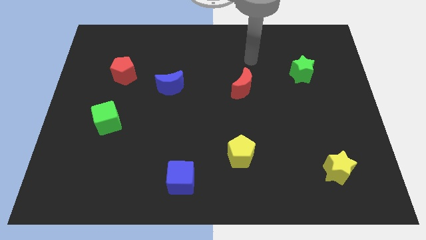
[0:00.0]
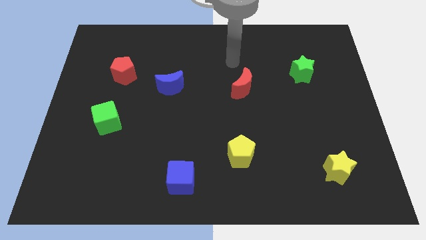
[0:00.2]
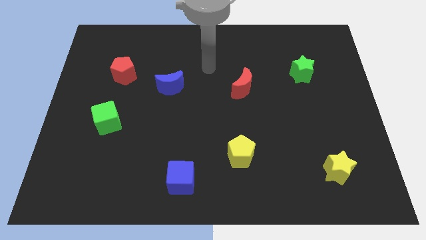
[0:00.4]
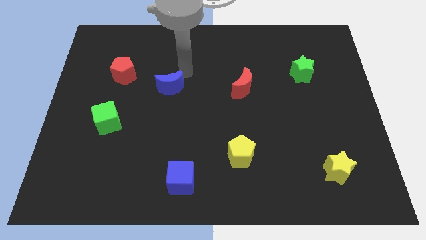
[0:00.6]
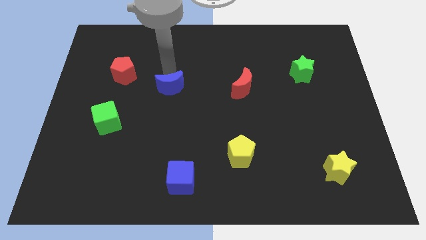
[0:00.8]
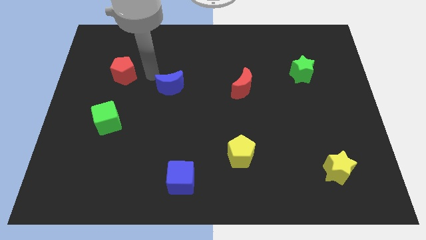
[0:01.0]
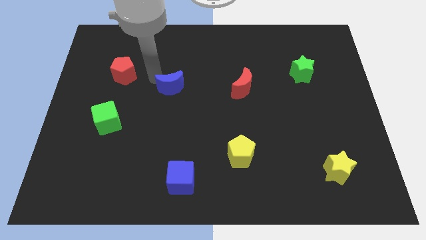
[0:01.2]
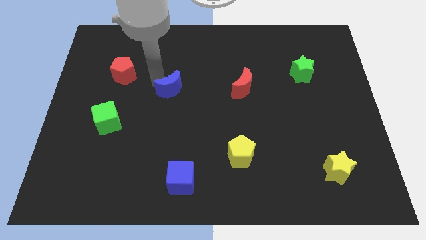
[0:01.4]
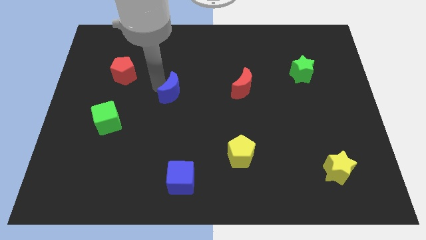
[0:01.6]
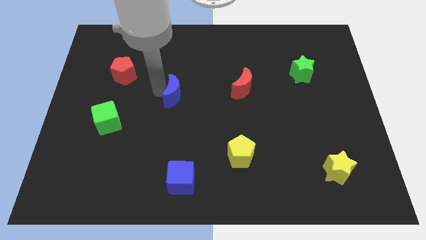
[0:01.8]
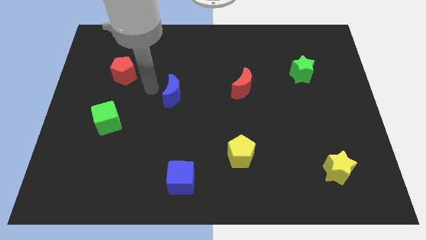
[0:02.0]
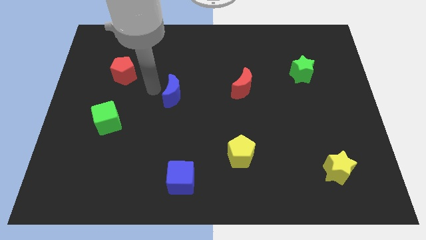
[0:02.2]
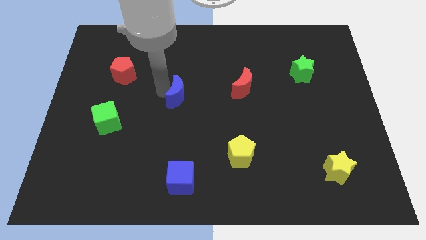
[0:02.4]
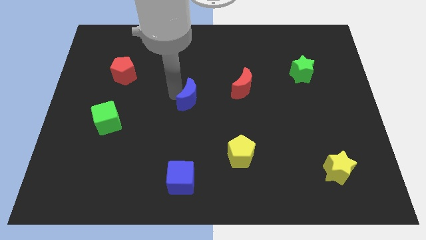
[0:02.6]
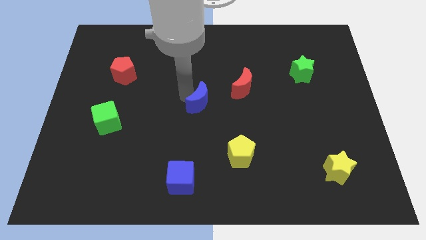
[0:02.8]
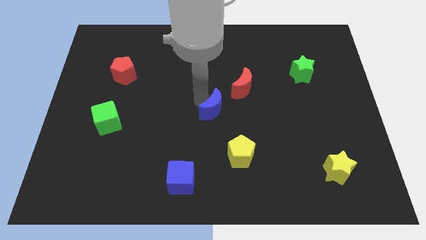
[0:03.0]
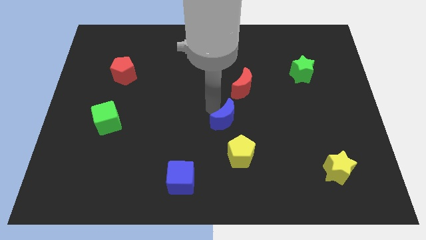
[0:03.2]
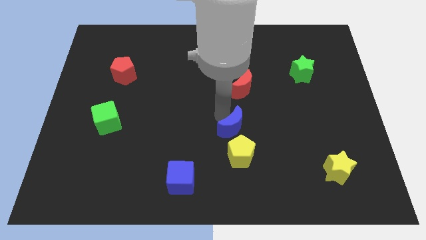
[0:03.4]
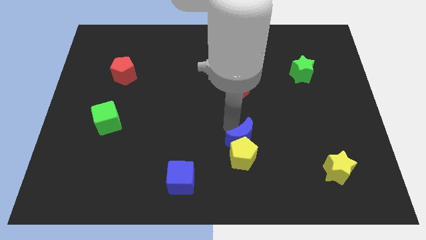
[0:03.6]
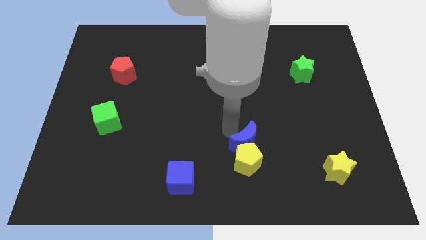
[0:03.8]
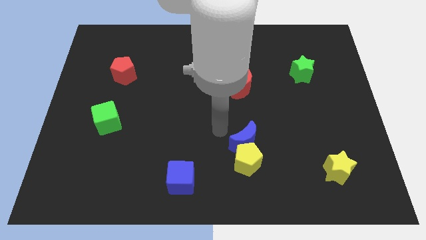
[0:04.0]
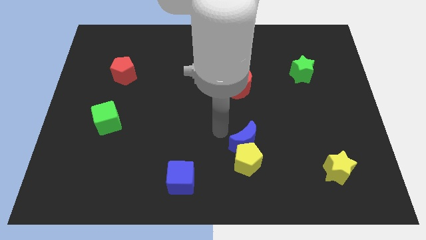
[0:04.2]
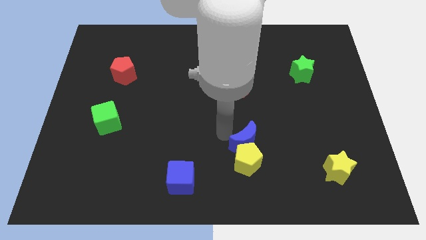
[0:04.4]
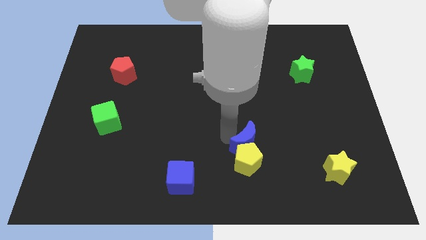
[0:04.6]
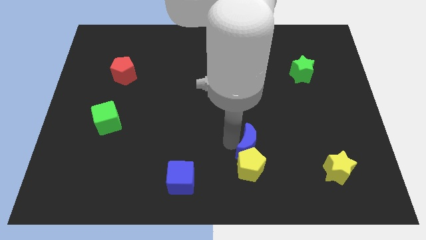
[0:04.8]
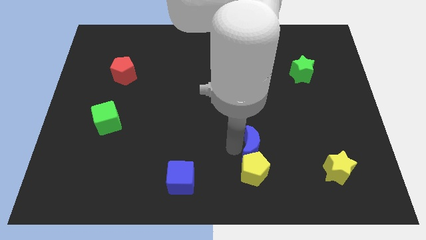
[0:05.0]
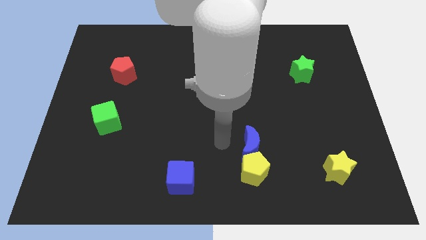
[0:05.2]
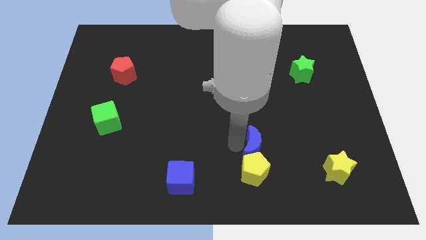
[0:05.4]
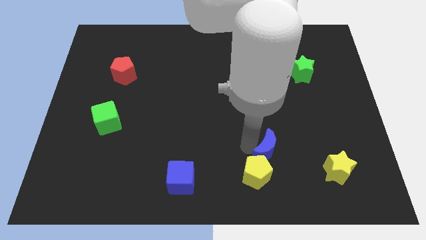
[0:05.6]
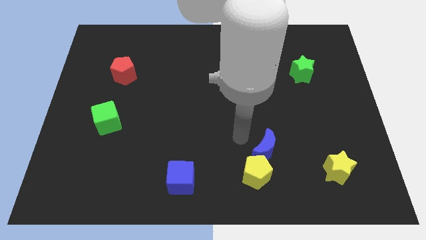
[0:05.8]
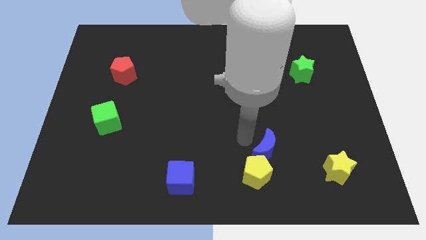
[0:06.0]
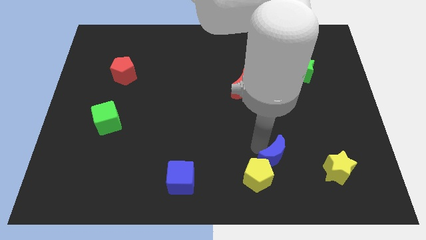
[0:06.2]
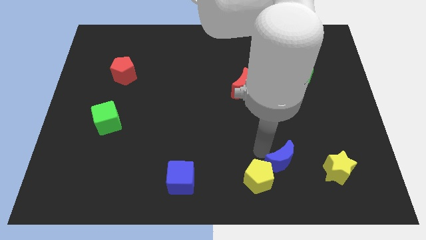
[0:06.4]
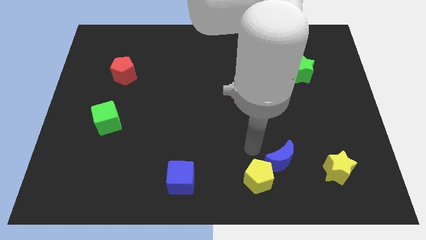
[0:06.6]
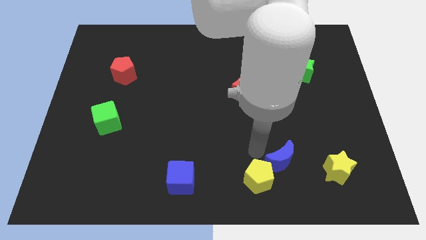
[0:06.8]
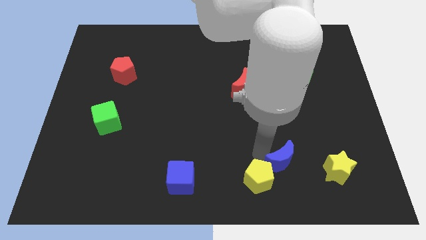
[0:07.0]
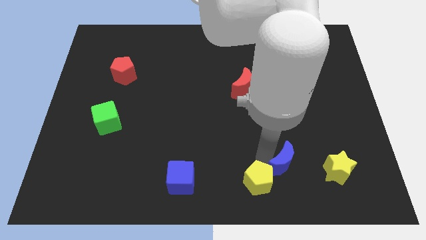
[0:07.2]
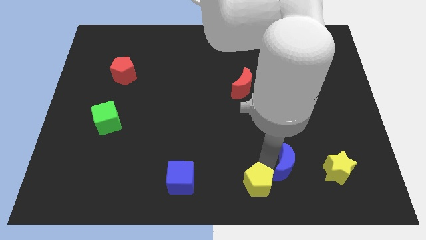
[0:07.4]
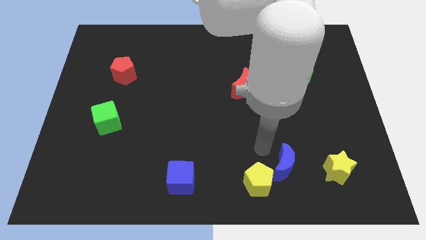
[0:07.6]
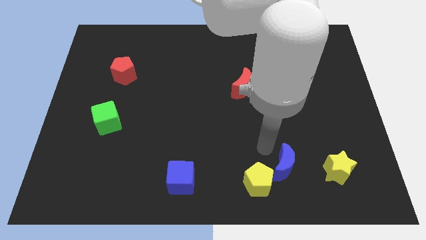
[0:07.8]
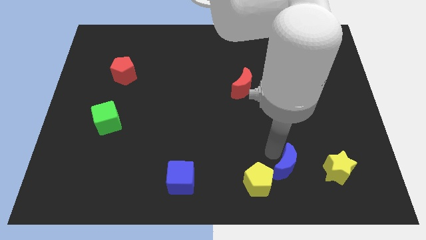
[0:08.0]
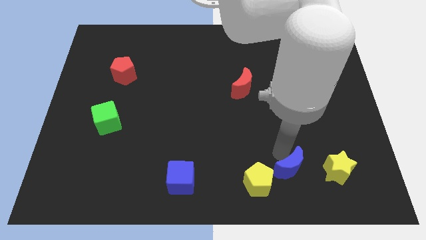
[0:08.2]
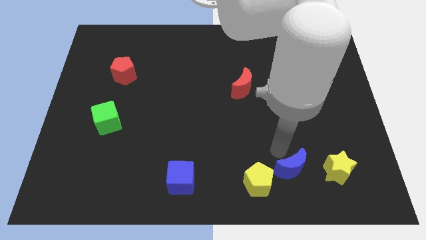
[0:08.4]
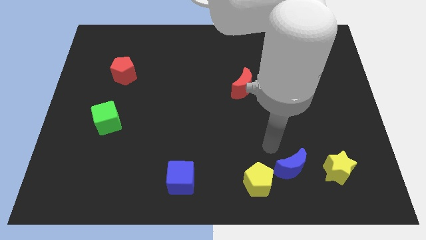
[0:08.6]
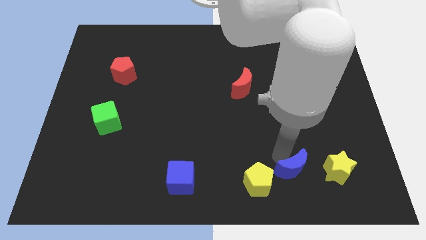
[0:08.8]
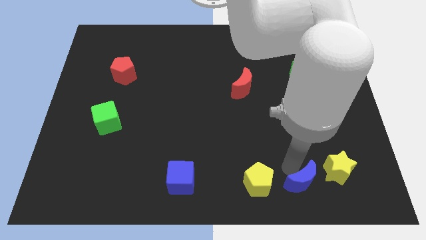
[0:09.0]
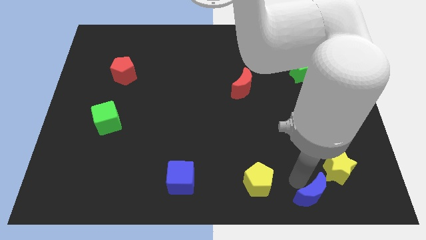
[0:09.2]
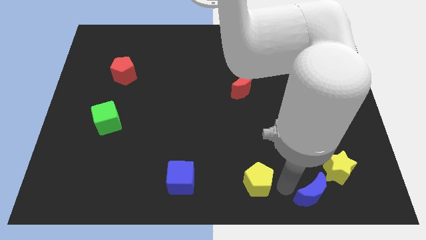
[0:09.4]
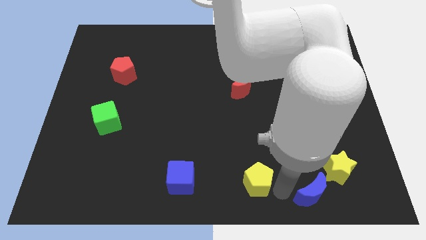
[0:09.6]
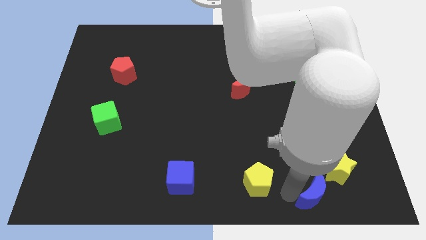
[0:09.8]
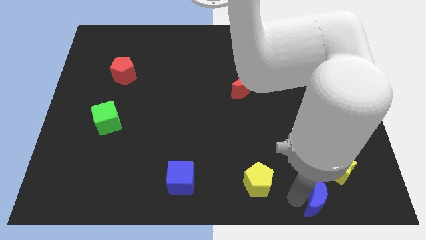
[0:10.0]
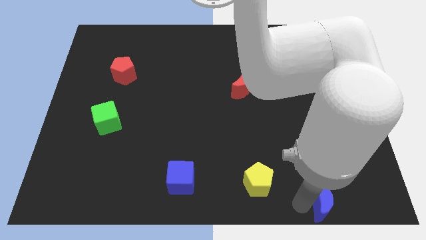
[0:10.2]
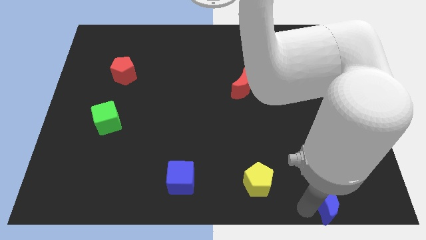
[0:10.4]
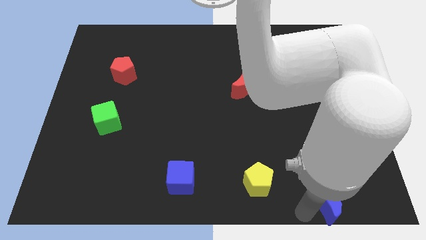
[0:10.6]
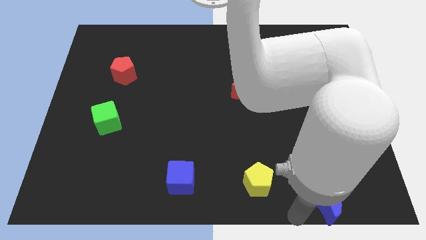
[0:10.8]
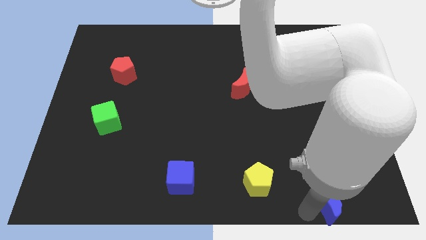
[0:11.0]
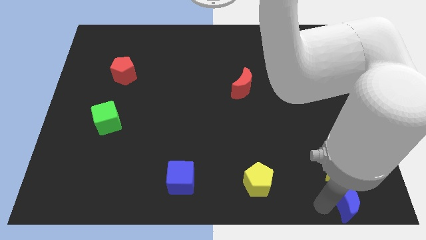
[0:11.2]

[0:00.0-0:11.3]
move the blue moon to the bottom right
